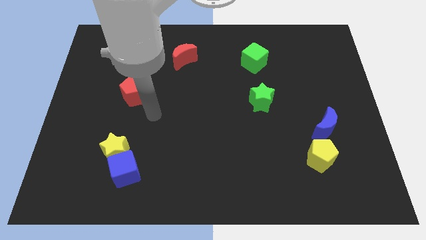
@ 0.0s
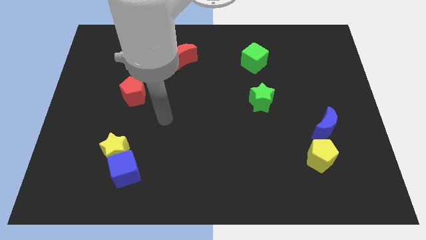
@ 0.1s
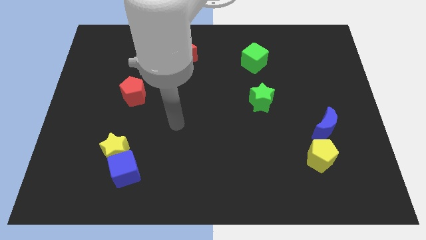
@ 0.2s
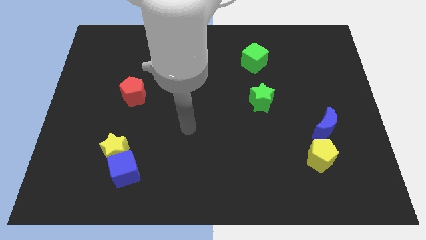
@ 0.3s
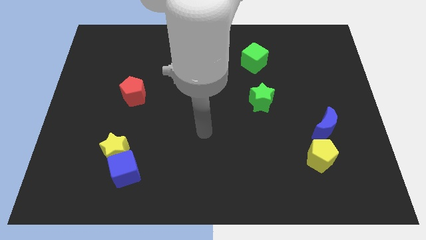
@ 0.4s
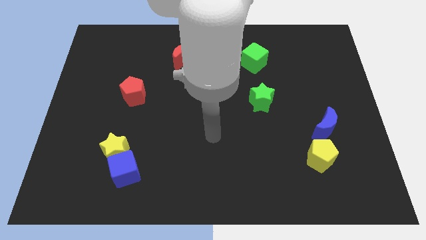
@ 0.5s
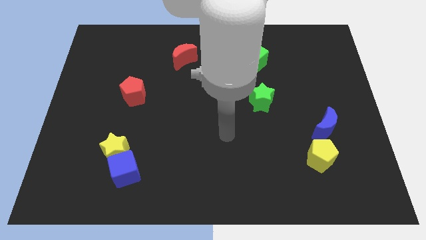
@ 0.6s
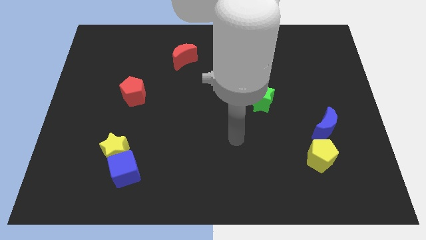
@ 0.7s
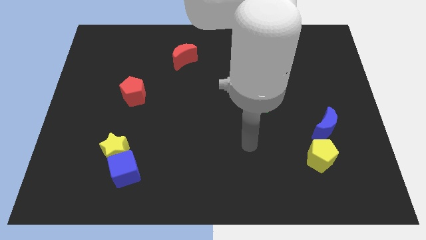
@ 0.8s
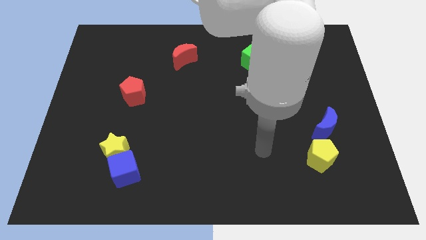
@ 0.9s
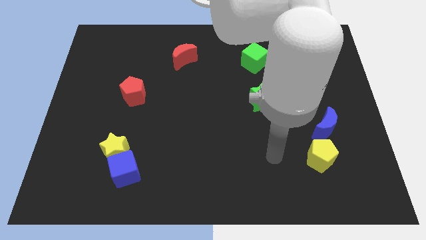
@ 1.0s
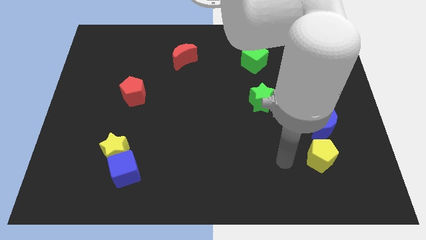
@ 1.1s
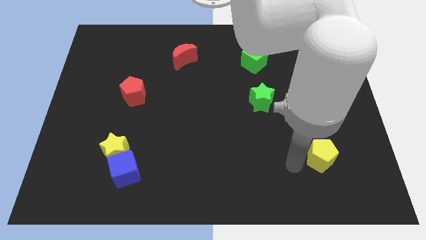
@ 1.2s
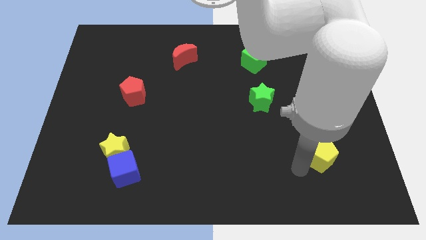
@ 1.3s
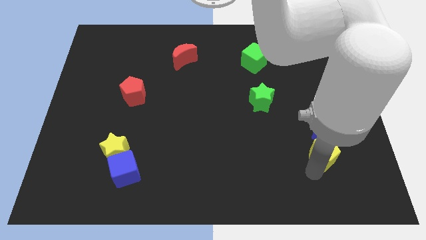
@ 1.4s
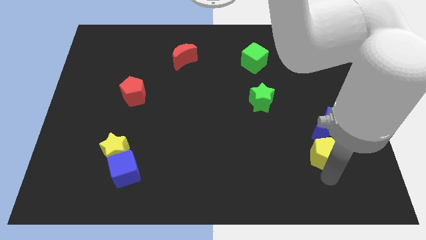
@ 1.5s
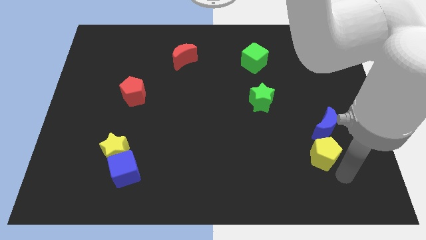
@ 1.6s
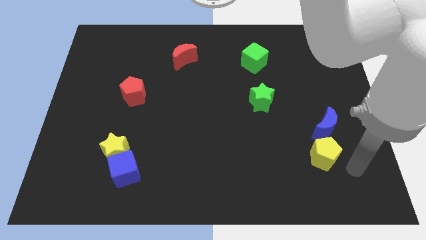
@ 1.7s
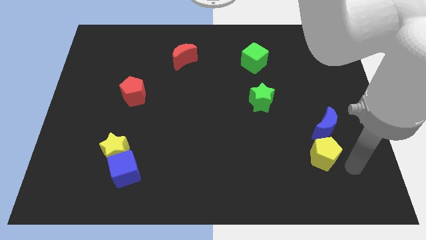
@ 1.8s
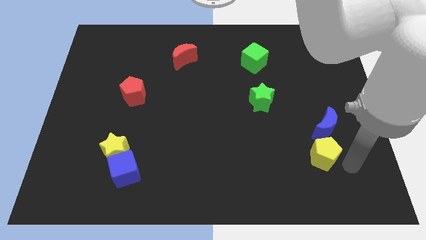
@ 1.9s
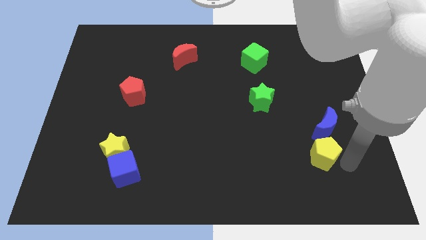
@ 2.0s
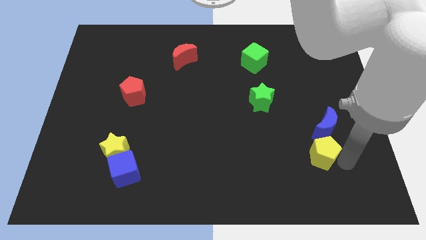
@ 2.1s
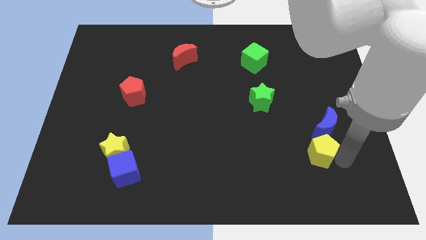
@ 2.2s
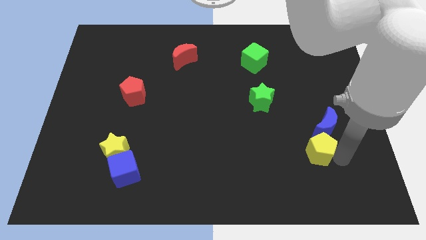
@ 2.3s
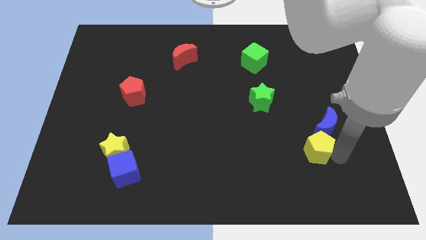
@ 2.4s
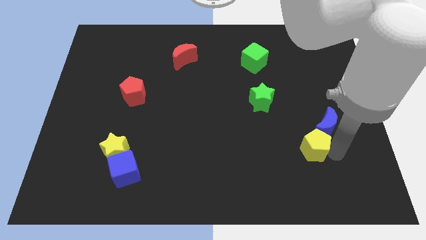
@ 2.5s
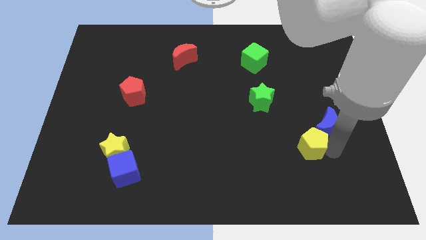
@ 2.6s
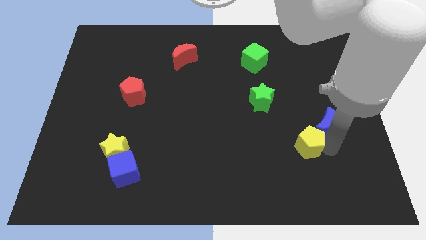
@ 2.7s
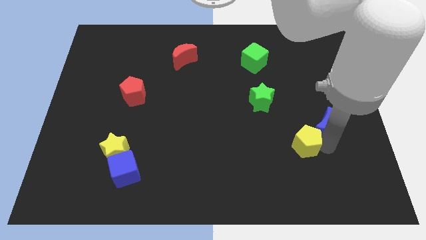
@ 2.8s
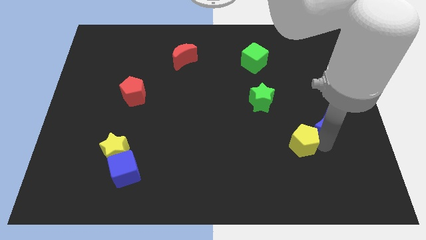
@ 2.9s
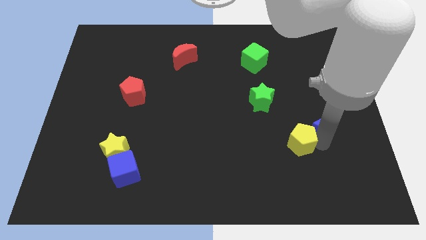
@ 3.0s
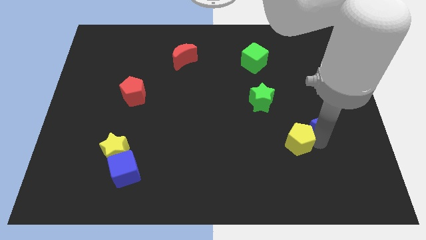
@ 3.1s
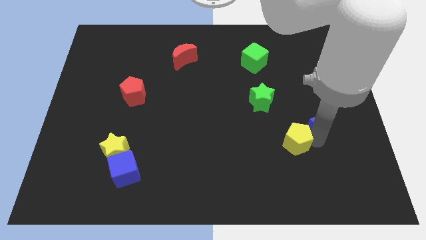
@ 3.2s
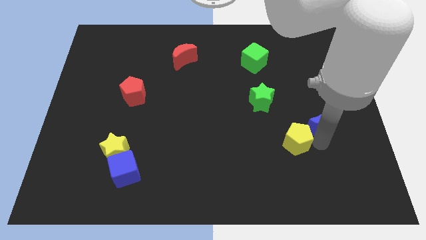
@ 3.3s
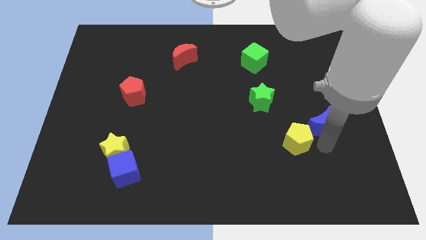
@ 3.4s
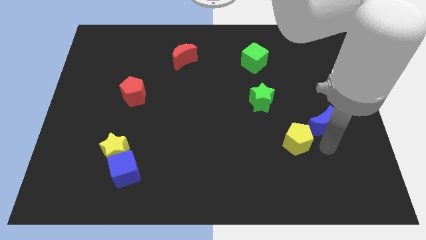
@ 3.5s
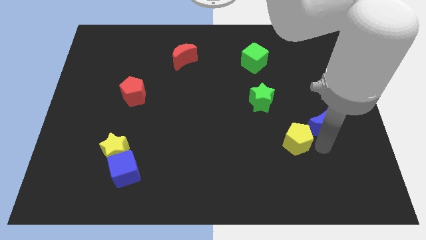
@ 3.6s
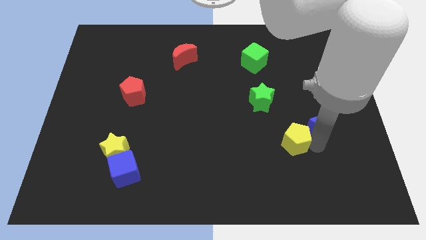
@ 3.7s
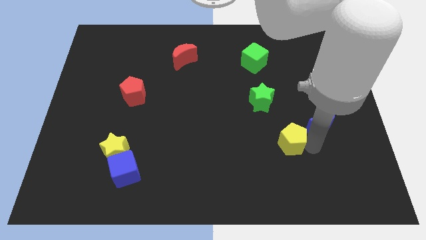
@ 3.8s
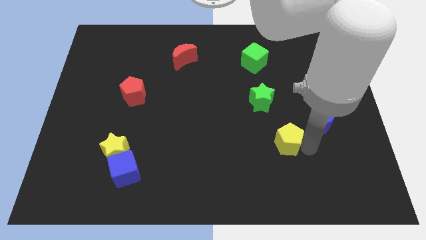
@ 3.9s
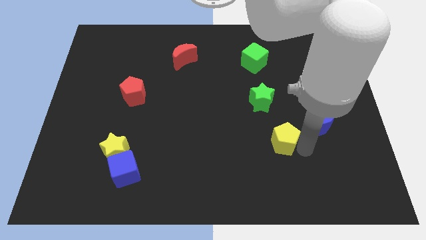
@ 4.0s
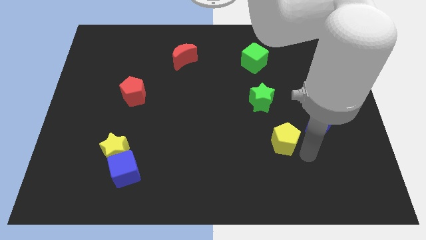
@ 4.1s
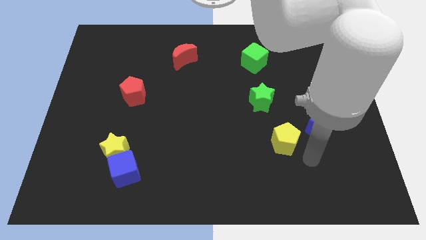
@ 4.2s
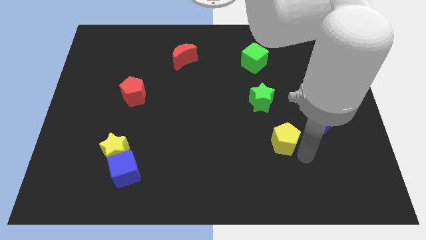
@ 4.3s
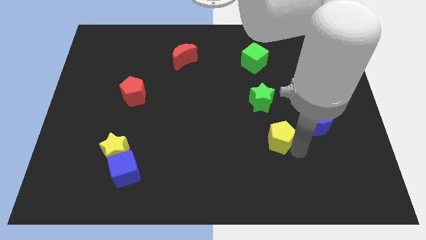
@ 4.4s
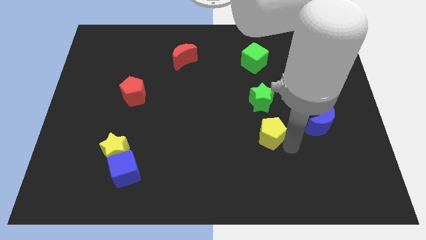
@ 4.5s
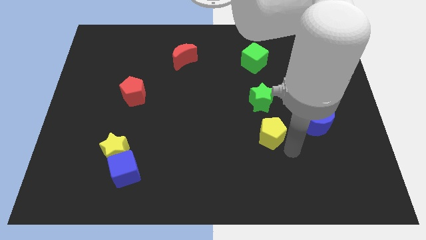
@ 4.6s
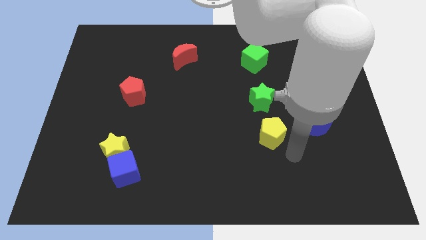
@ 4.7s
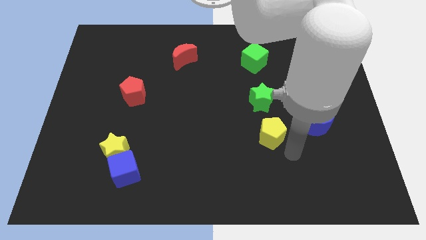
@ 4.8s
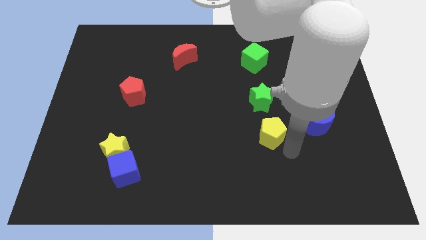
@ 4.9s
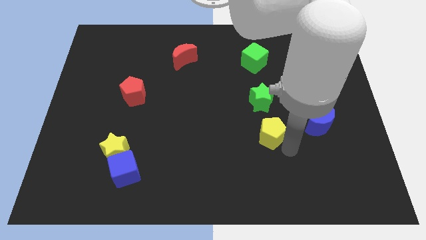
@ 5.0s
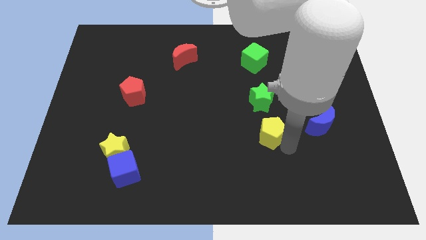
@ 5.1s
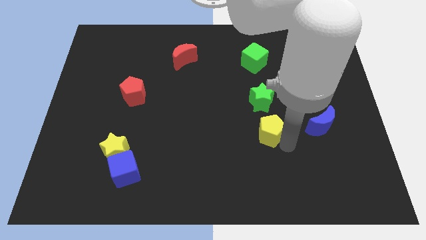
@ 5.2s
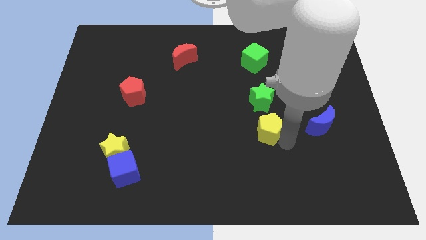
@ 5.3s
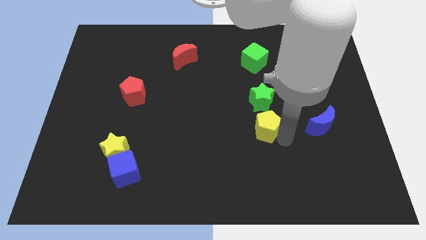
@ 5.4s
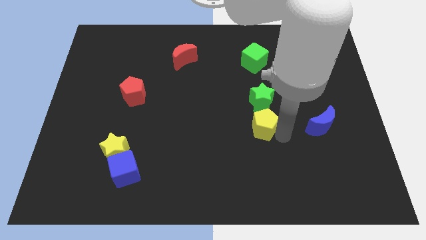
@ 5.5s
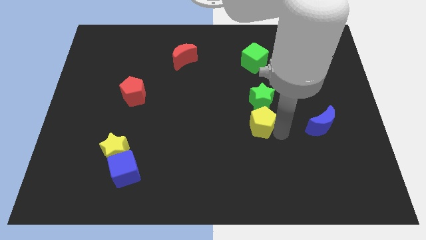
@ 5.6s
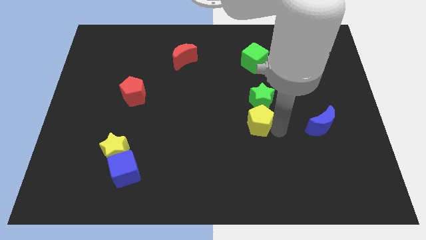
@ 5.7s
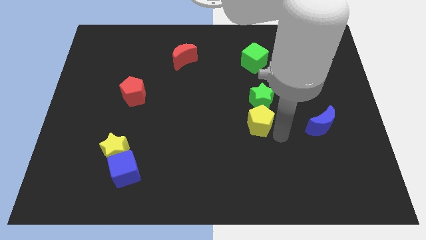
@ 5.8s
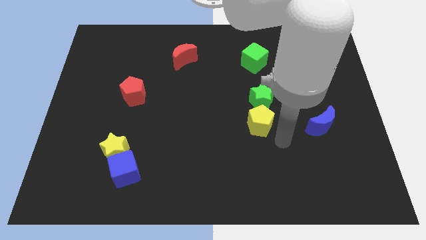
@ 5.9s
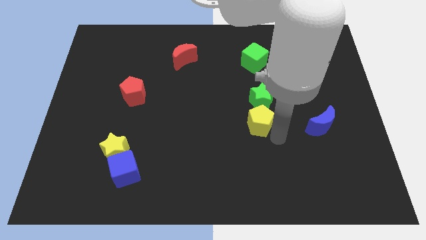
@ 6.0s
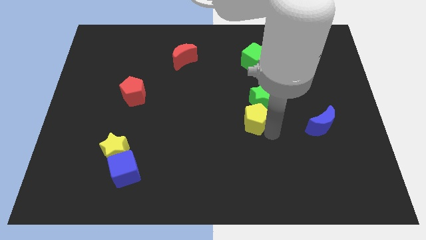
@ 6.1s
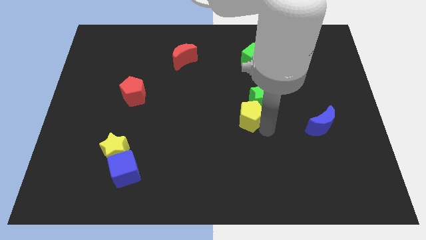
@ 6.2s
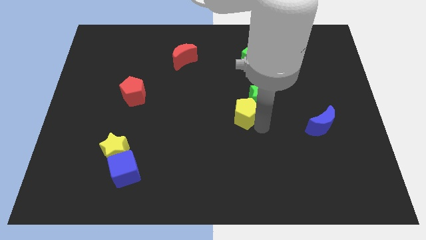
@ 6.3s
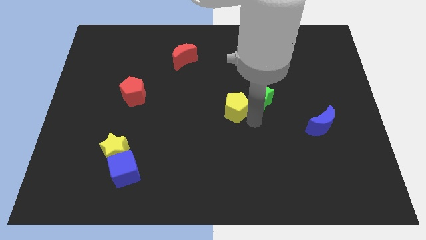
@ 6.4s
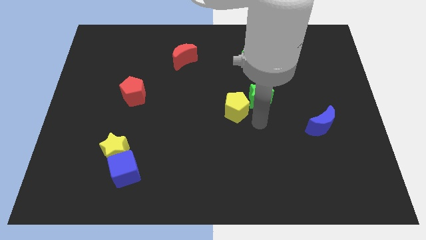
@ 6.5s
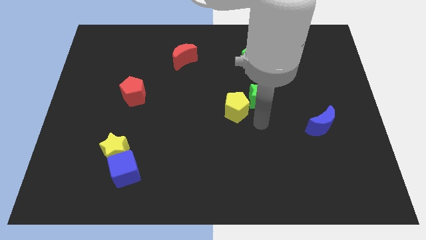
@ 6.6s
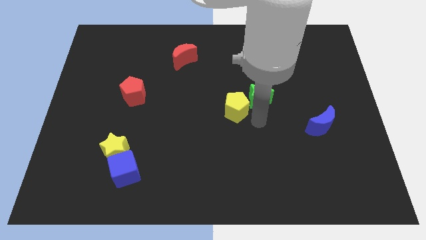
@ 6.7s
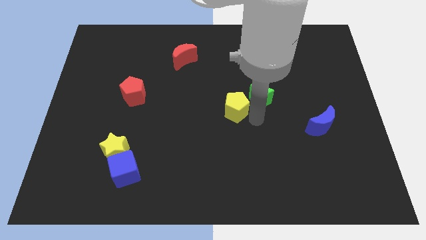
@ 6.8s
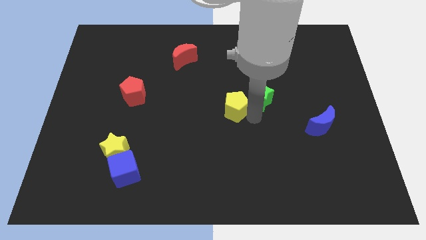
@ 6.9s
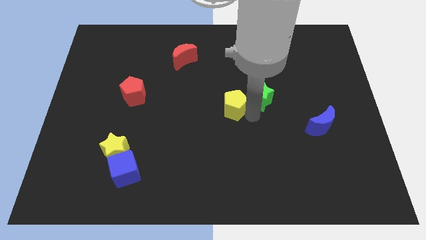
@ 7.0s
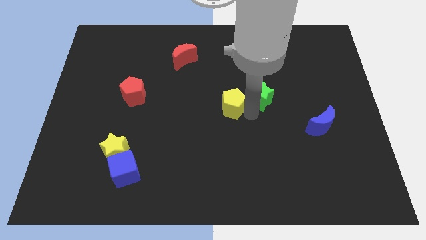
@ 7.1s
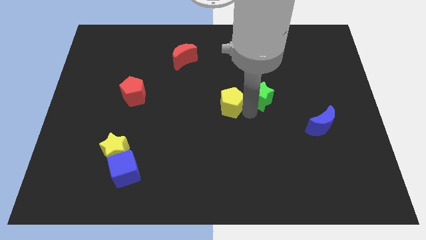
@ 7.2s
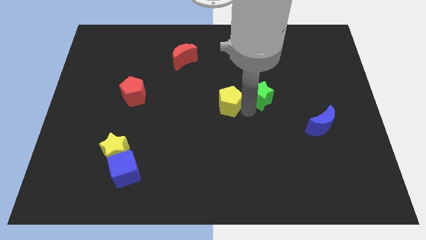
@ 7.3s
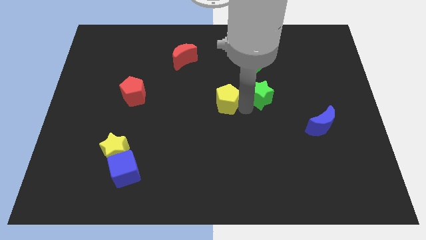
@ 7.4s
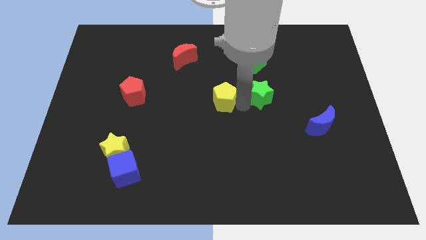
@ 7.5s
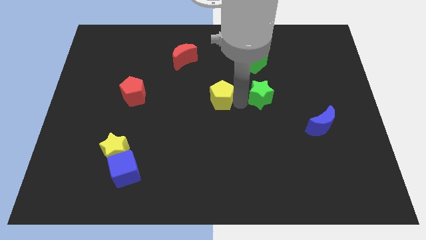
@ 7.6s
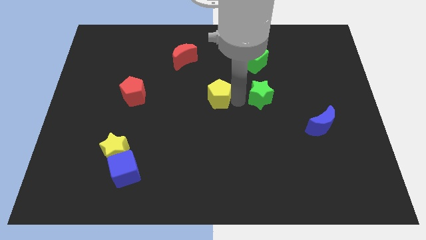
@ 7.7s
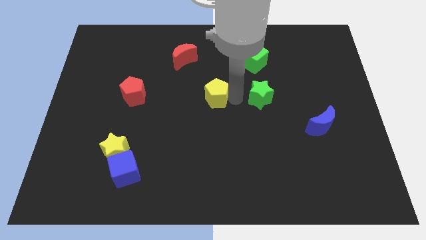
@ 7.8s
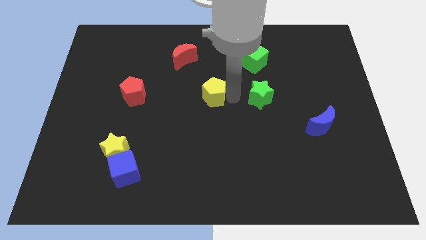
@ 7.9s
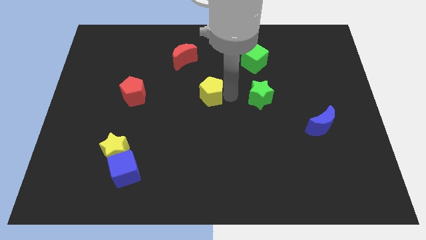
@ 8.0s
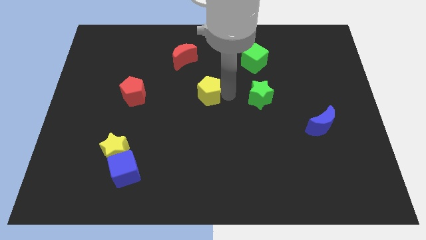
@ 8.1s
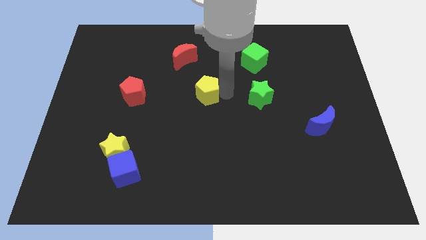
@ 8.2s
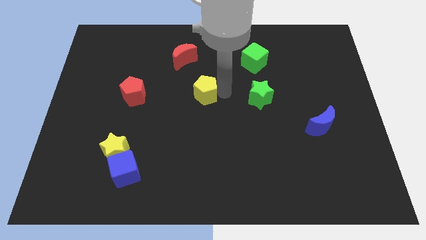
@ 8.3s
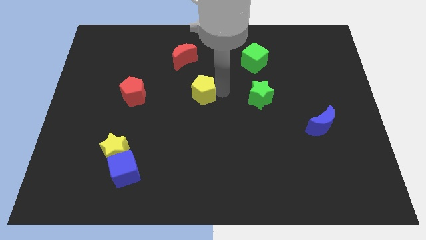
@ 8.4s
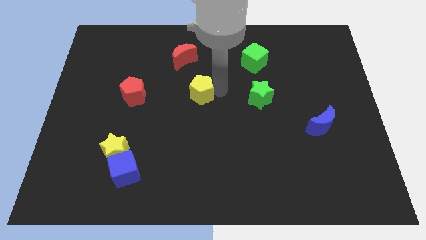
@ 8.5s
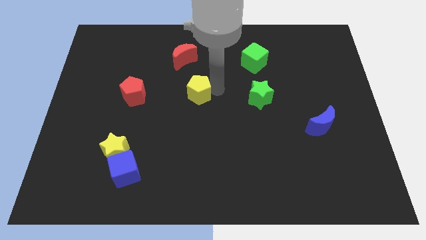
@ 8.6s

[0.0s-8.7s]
put the yellow pentagon to the right side of the red pentagon
